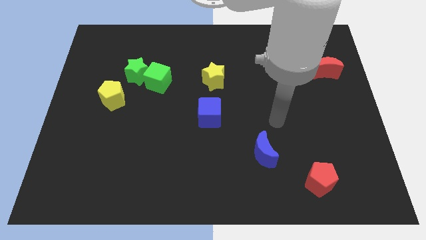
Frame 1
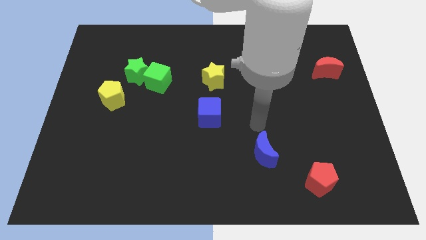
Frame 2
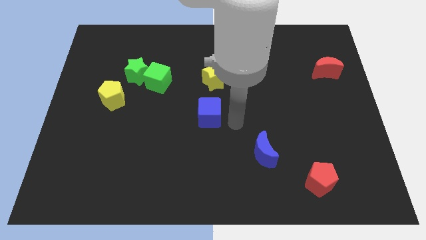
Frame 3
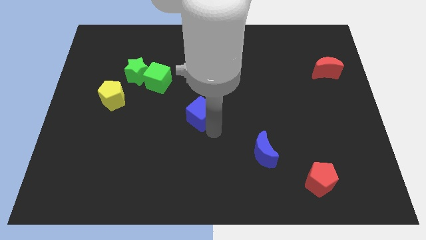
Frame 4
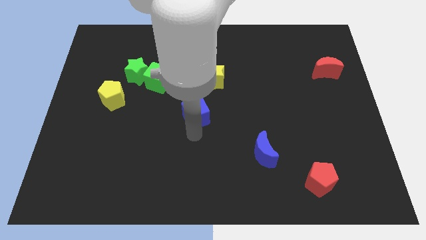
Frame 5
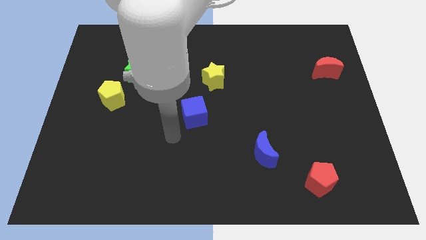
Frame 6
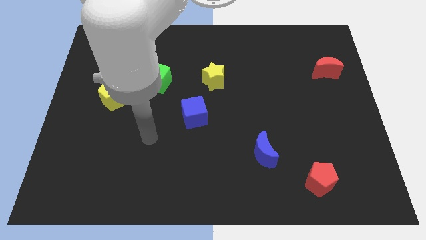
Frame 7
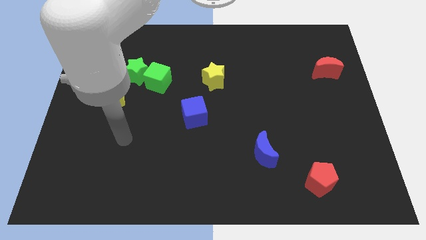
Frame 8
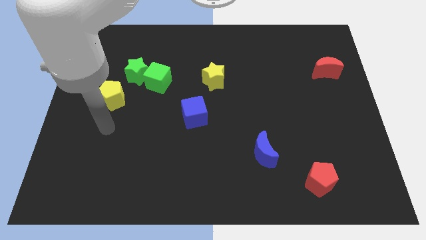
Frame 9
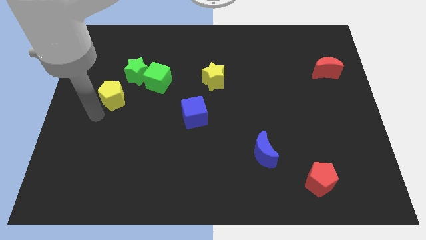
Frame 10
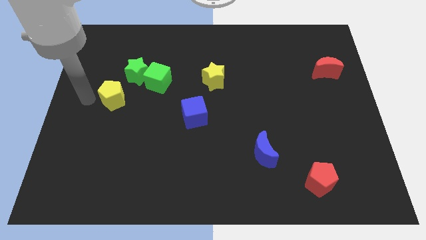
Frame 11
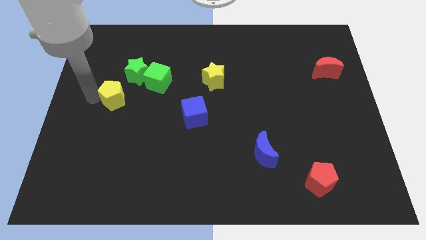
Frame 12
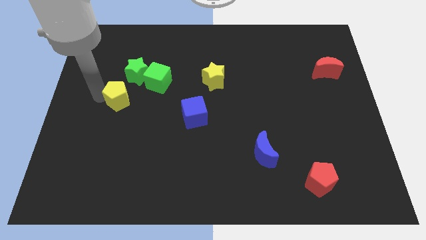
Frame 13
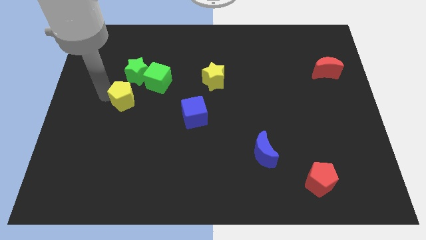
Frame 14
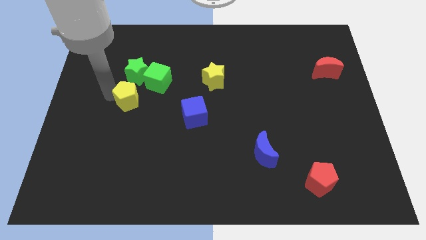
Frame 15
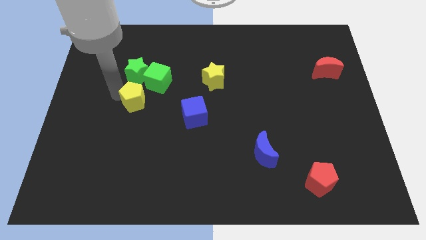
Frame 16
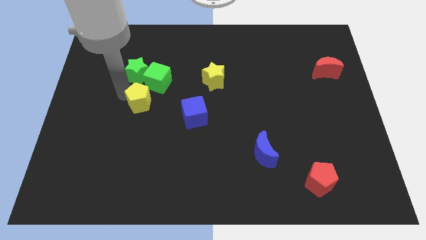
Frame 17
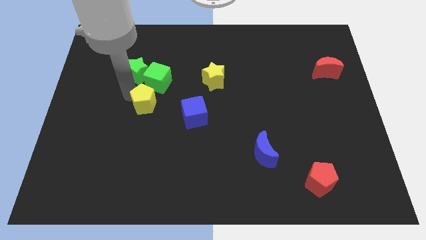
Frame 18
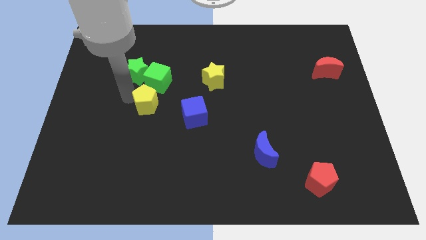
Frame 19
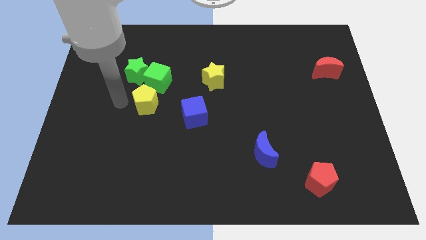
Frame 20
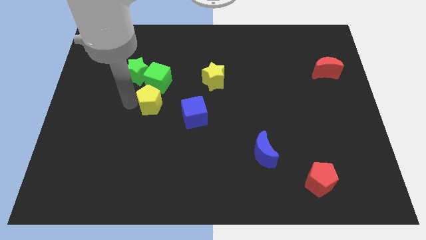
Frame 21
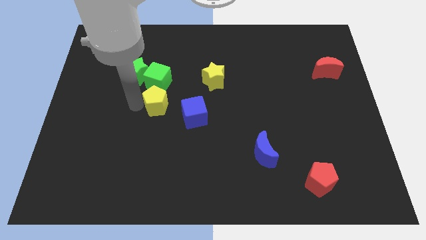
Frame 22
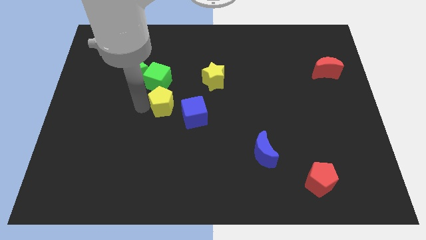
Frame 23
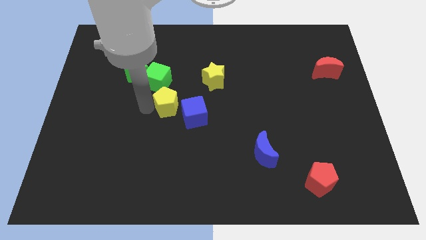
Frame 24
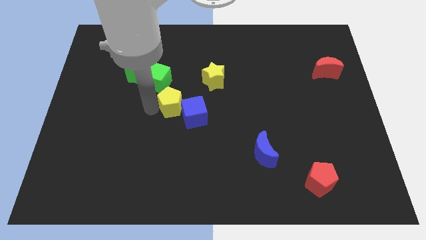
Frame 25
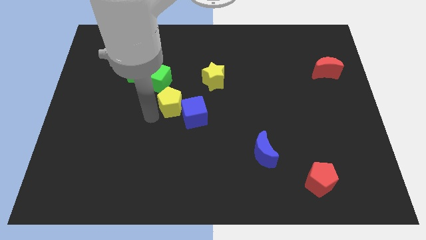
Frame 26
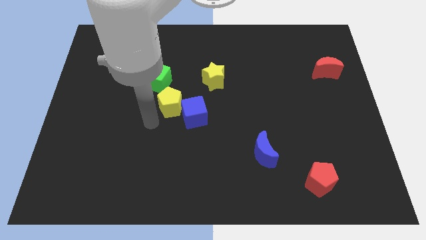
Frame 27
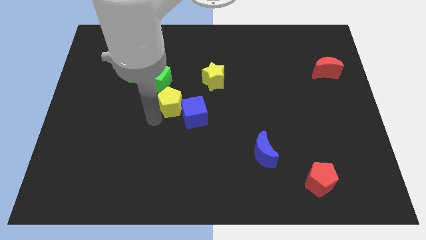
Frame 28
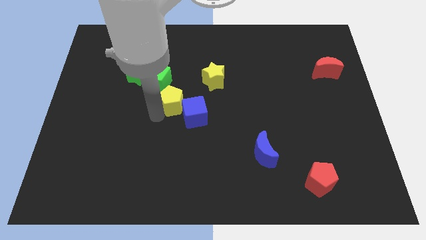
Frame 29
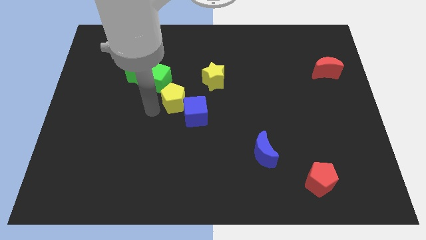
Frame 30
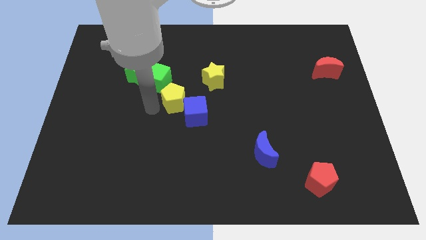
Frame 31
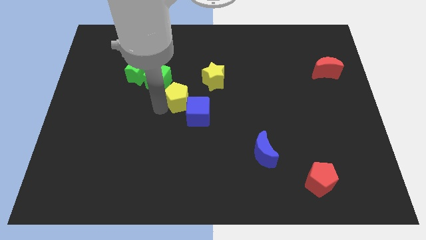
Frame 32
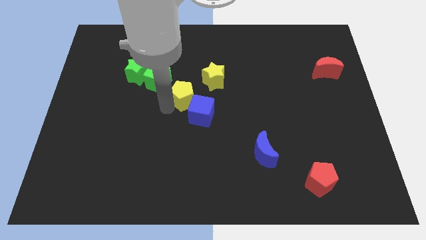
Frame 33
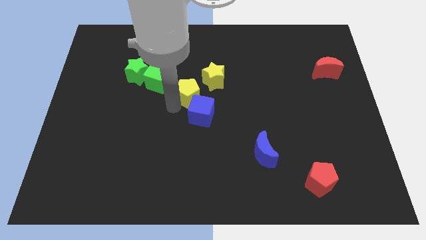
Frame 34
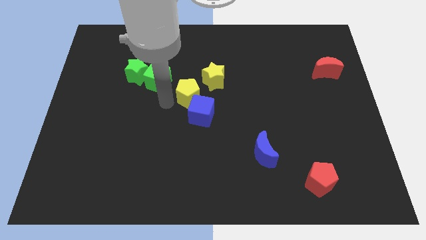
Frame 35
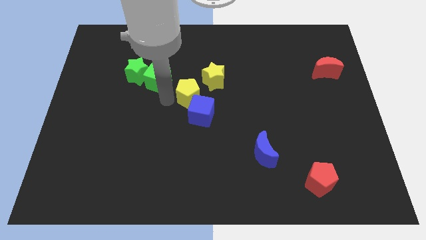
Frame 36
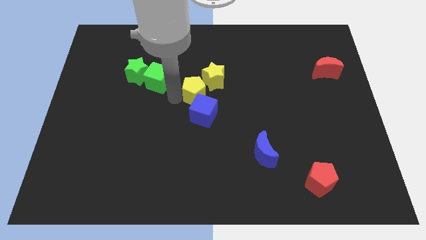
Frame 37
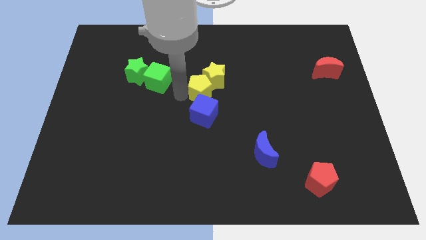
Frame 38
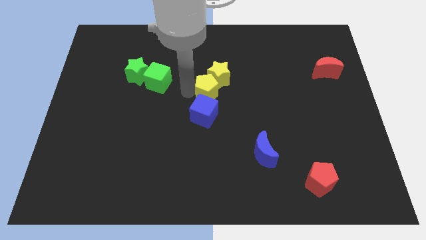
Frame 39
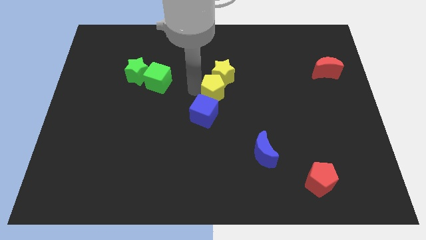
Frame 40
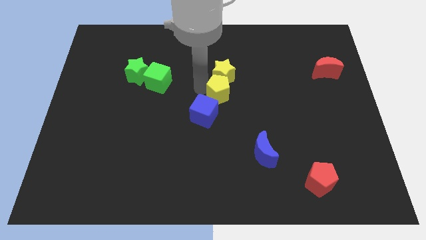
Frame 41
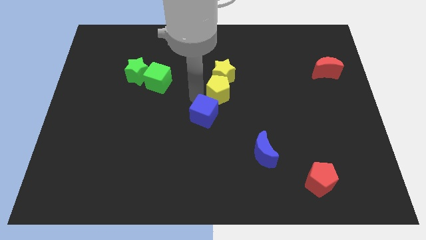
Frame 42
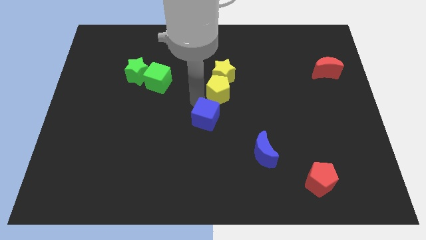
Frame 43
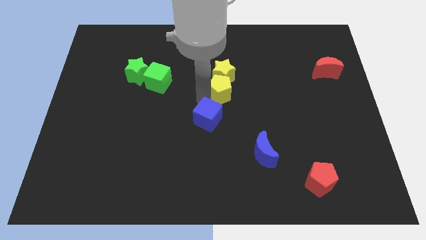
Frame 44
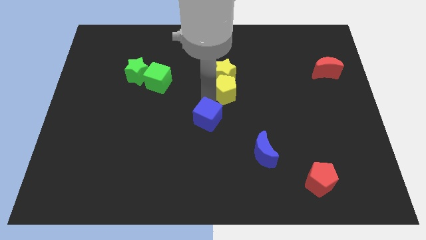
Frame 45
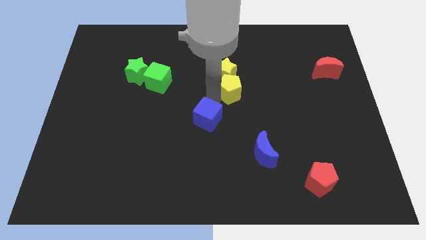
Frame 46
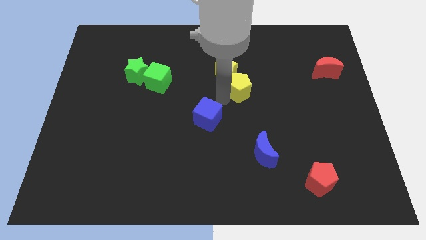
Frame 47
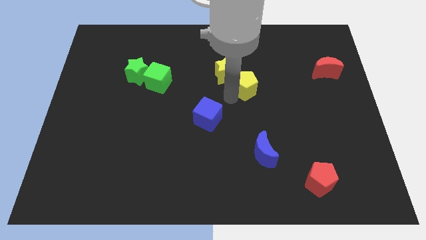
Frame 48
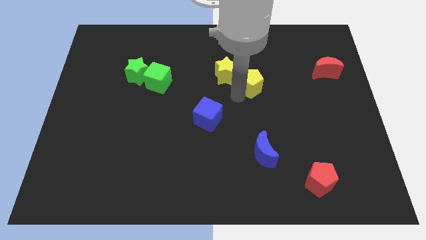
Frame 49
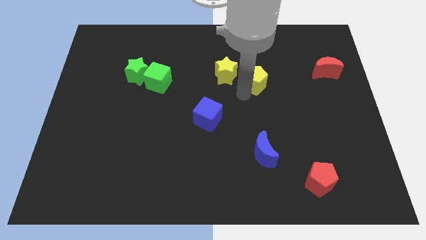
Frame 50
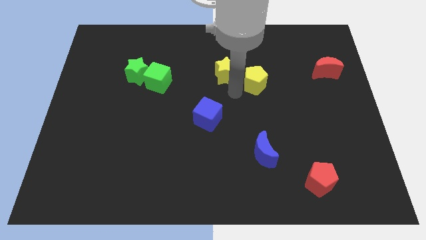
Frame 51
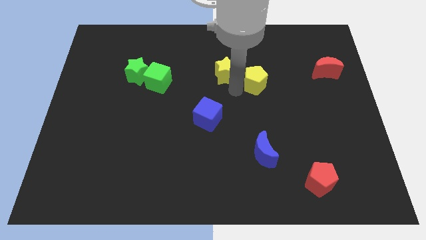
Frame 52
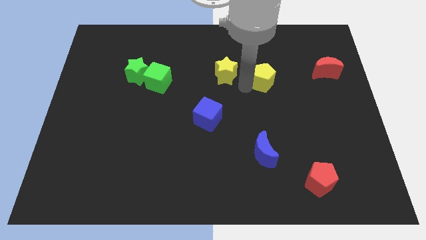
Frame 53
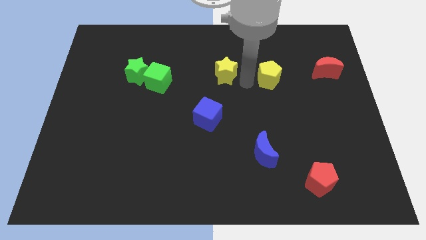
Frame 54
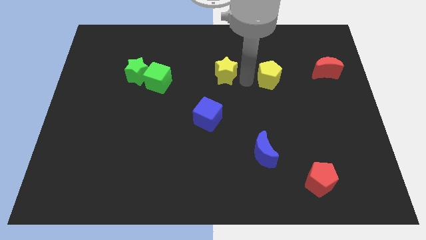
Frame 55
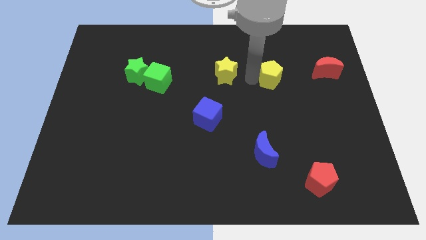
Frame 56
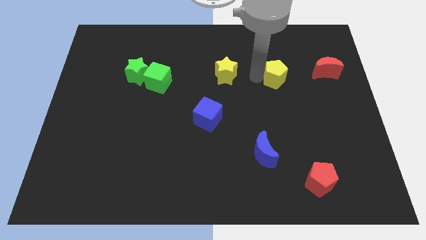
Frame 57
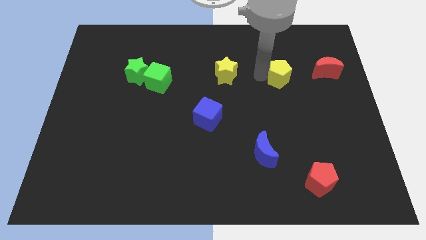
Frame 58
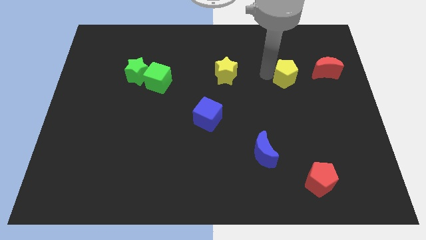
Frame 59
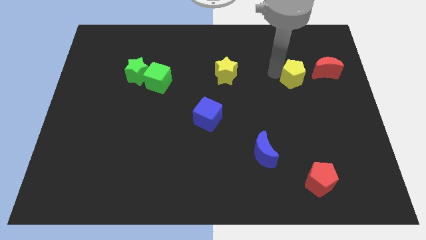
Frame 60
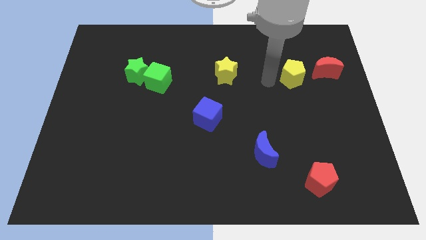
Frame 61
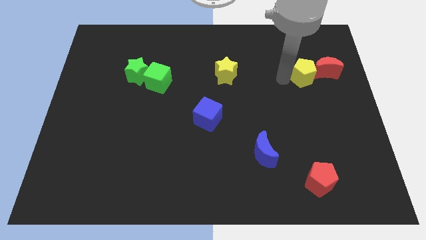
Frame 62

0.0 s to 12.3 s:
slide the yellow pentagon next to the red moon

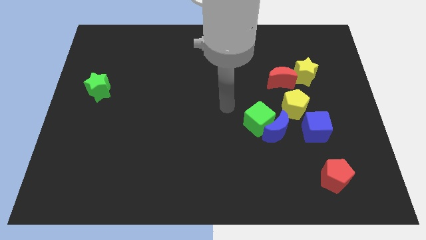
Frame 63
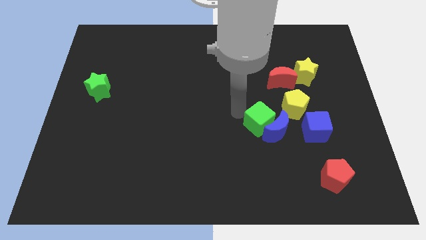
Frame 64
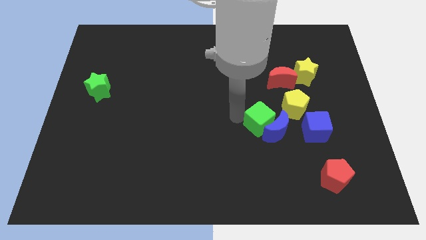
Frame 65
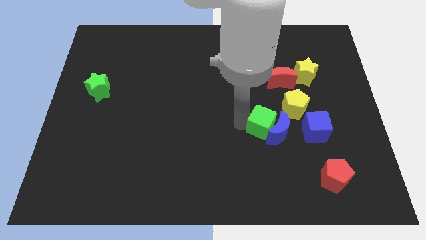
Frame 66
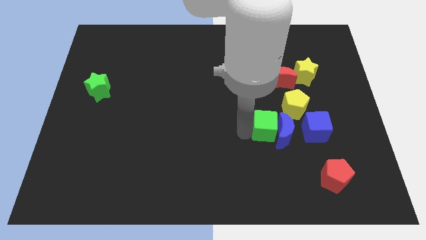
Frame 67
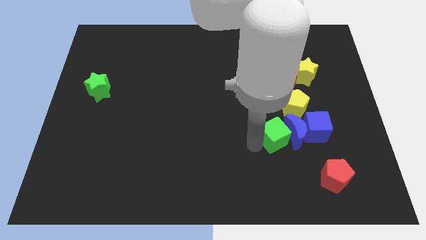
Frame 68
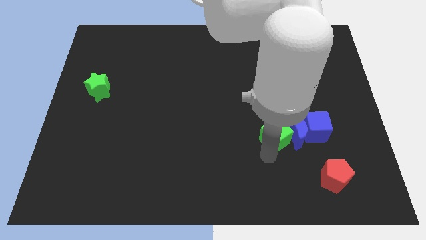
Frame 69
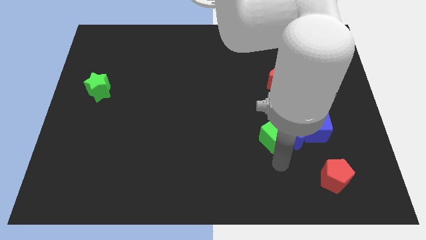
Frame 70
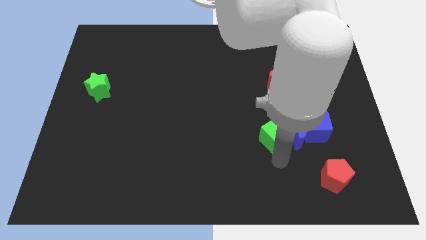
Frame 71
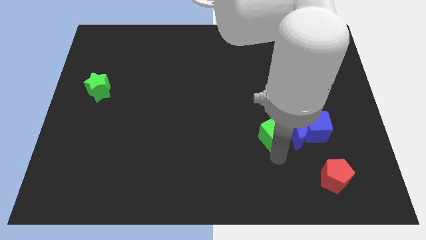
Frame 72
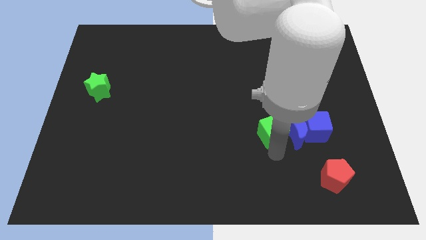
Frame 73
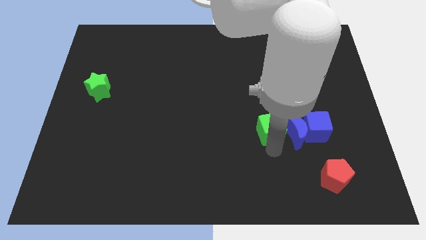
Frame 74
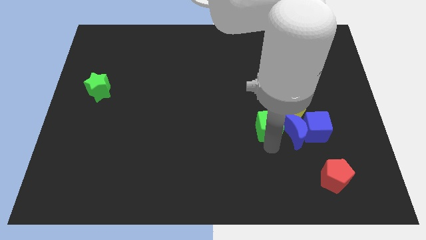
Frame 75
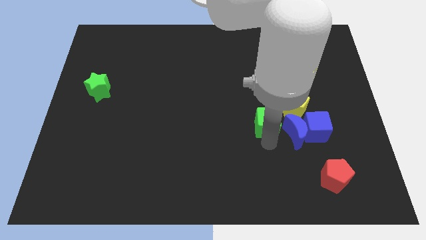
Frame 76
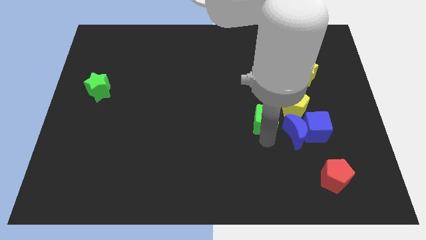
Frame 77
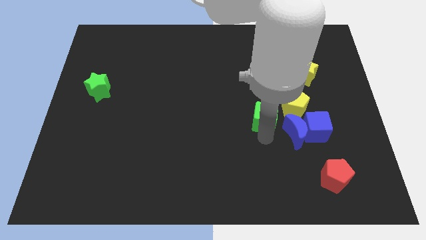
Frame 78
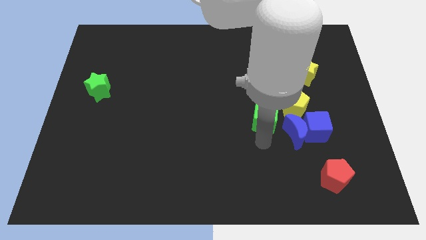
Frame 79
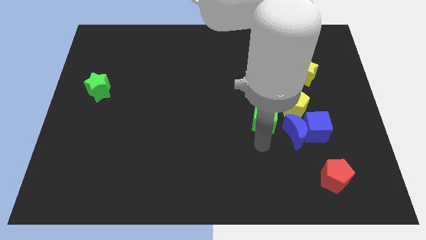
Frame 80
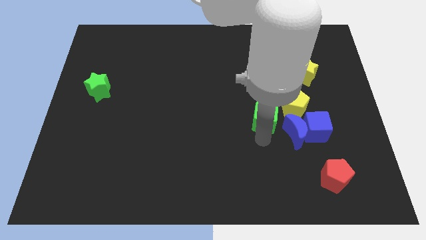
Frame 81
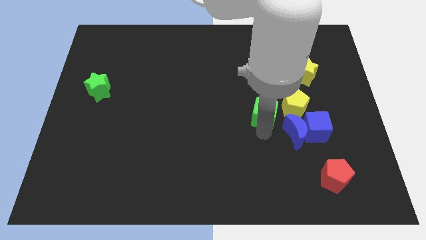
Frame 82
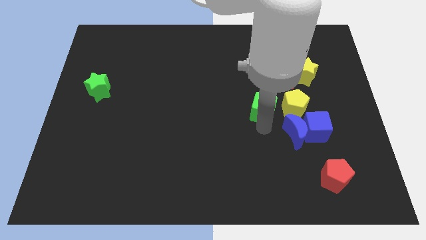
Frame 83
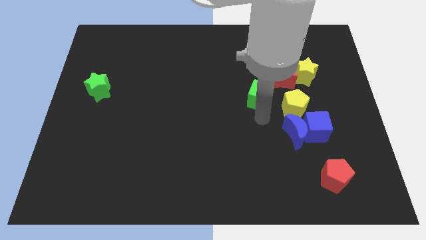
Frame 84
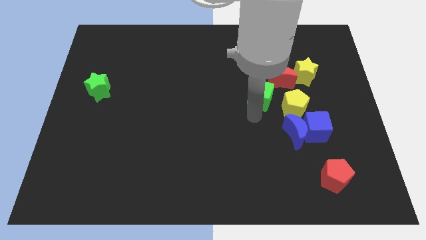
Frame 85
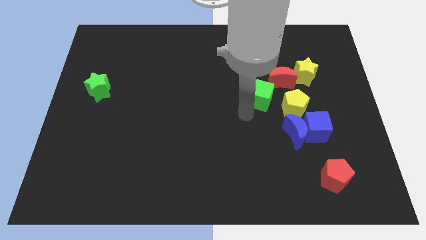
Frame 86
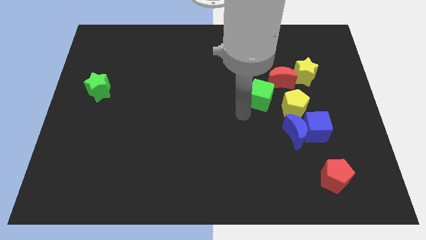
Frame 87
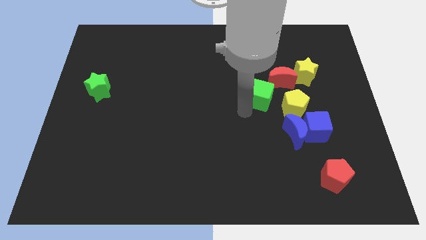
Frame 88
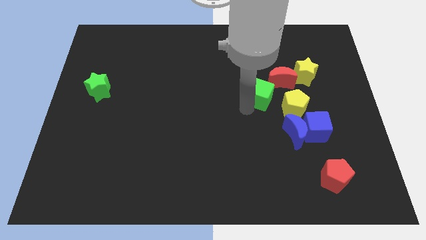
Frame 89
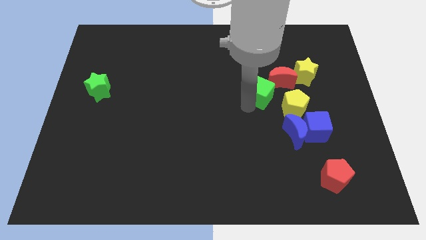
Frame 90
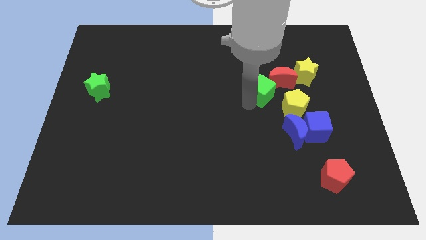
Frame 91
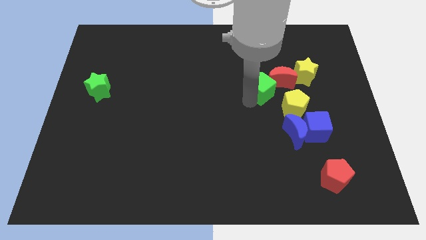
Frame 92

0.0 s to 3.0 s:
slide the green cube to the red moon
